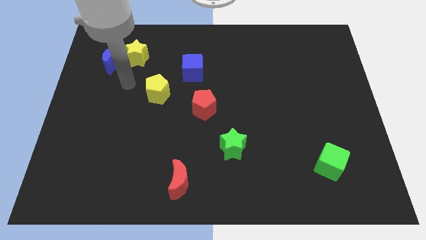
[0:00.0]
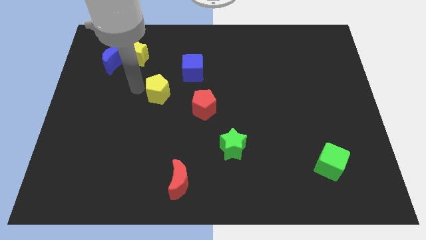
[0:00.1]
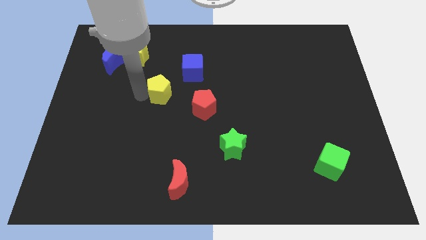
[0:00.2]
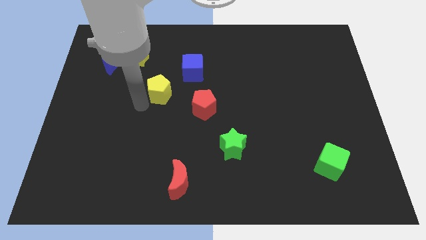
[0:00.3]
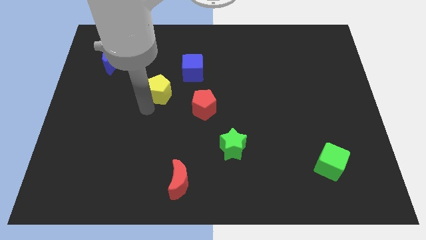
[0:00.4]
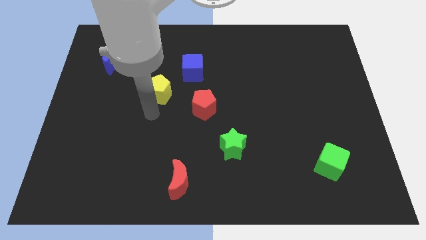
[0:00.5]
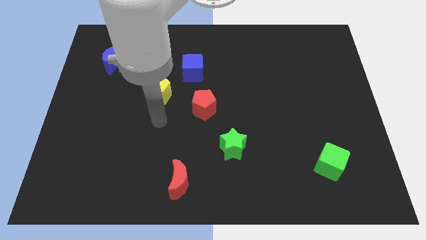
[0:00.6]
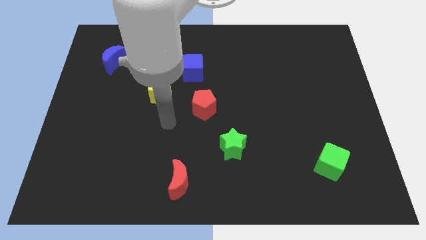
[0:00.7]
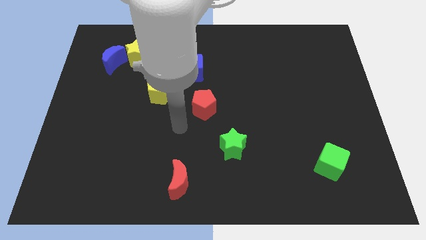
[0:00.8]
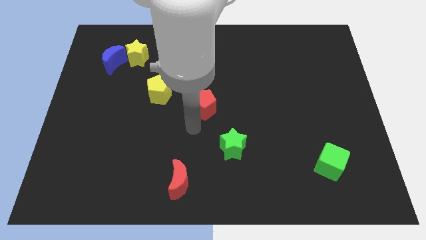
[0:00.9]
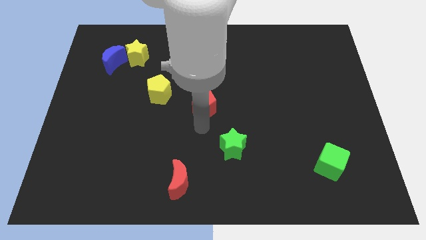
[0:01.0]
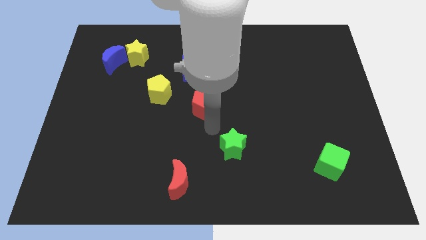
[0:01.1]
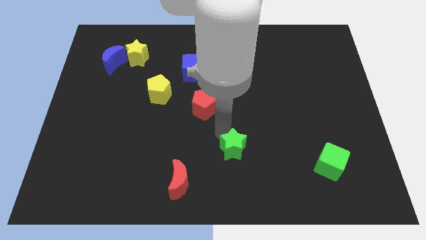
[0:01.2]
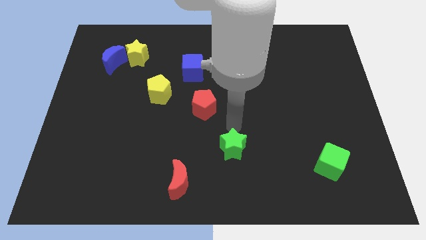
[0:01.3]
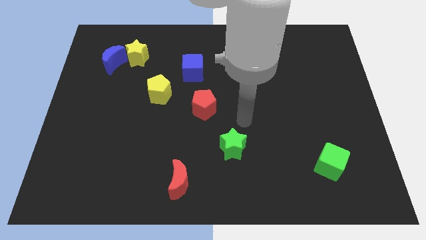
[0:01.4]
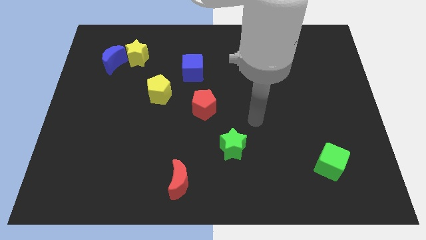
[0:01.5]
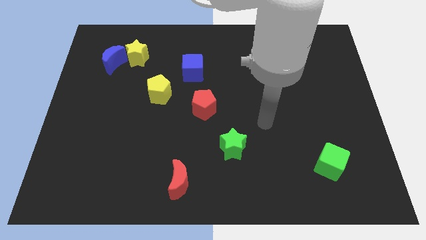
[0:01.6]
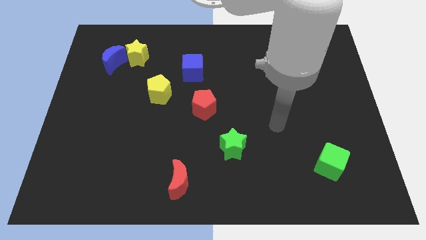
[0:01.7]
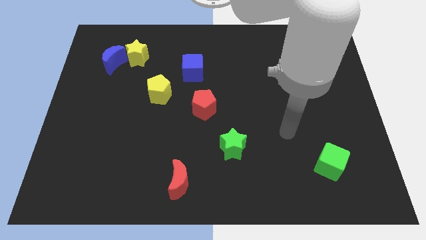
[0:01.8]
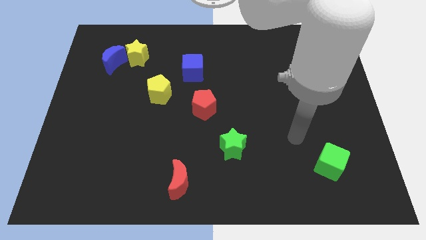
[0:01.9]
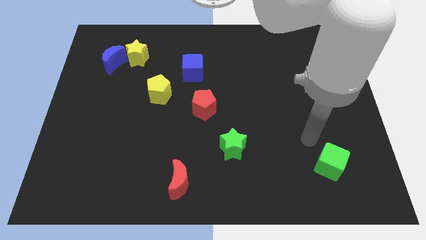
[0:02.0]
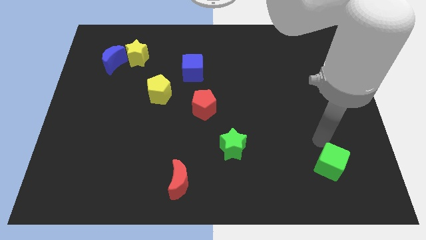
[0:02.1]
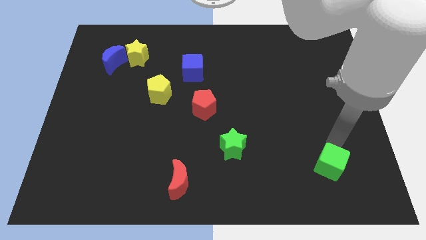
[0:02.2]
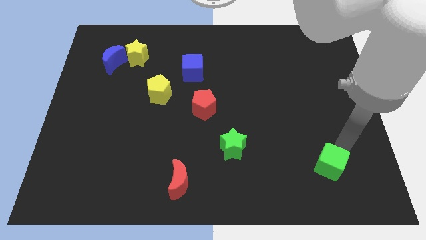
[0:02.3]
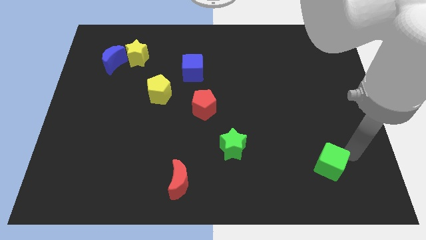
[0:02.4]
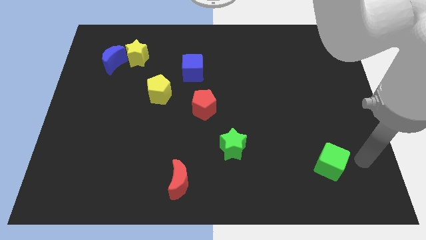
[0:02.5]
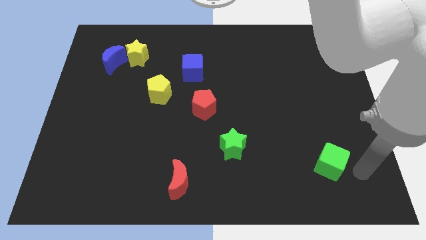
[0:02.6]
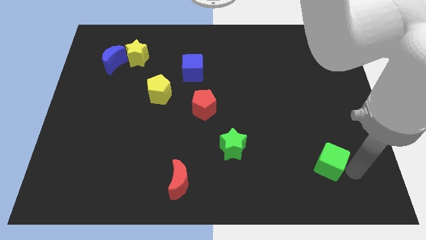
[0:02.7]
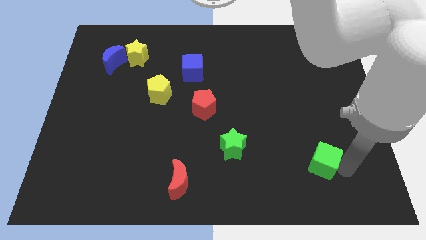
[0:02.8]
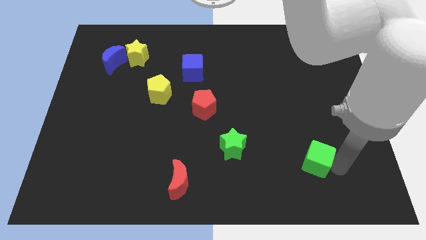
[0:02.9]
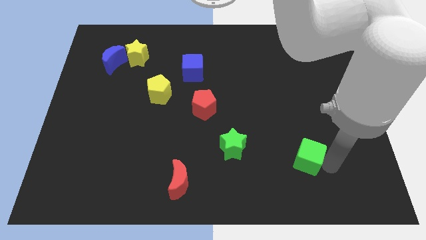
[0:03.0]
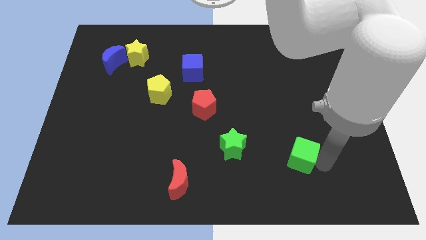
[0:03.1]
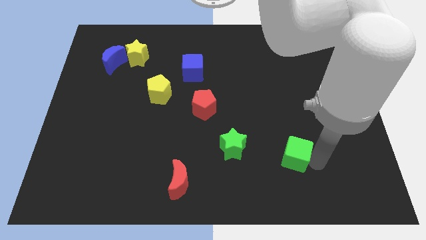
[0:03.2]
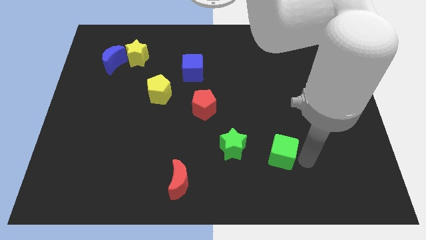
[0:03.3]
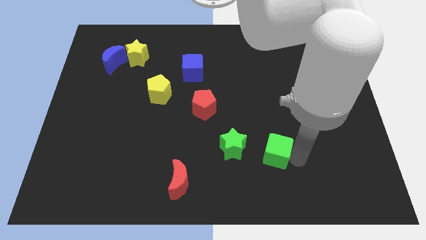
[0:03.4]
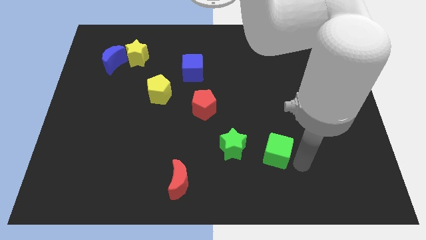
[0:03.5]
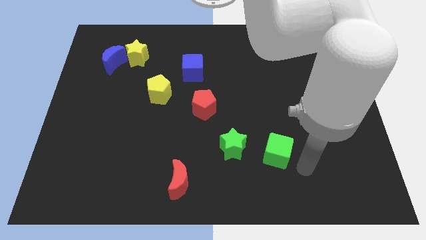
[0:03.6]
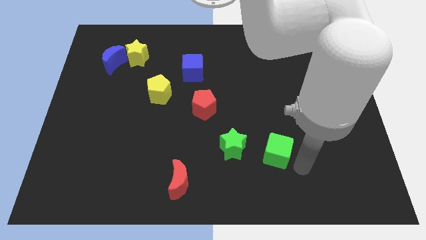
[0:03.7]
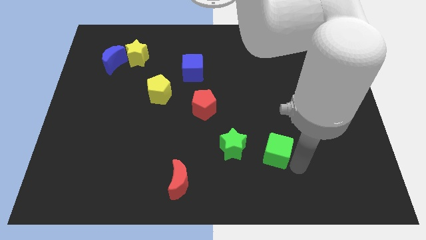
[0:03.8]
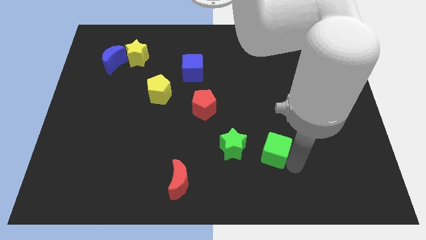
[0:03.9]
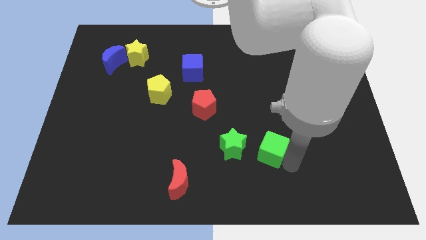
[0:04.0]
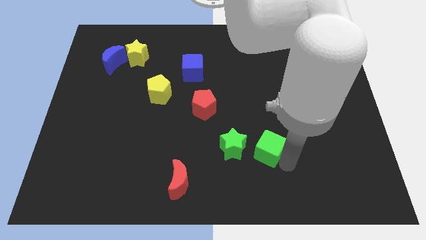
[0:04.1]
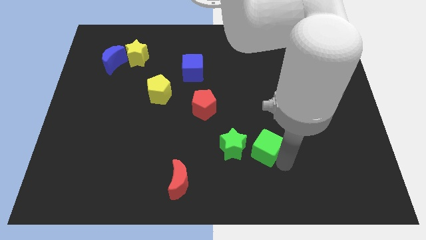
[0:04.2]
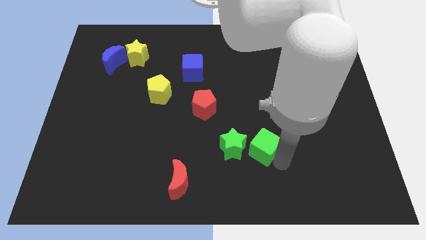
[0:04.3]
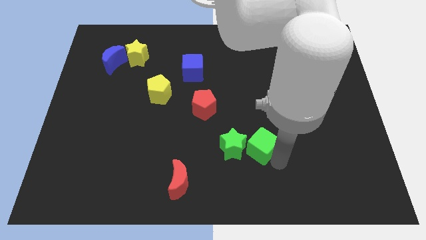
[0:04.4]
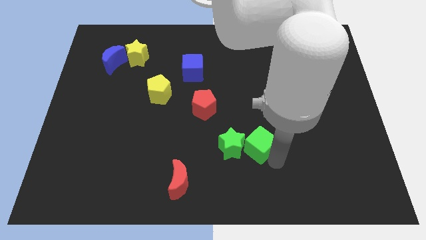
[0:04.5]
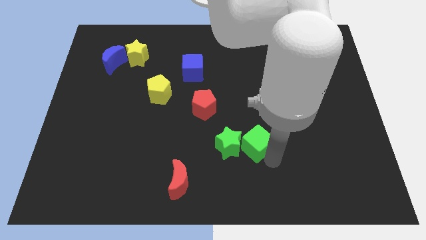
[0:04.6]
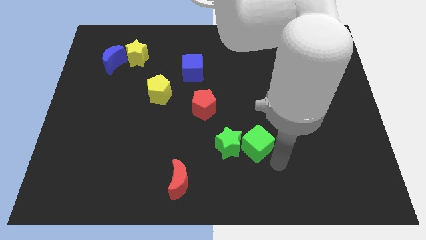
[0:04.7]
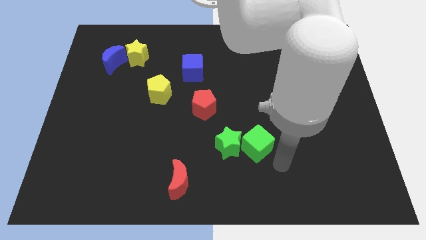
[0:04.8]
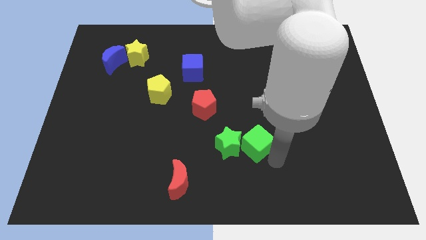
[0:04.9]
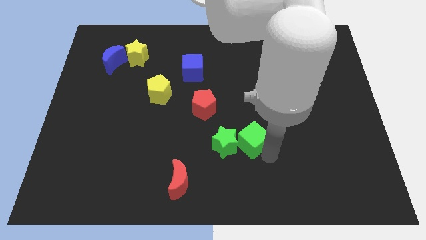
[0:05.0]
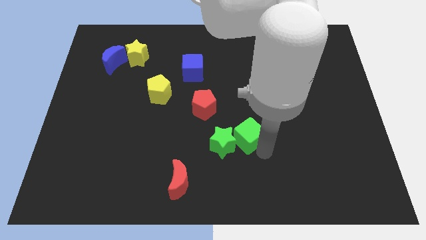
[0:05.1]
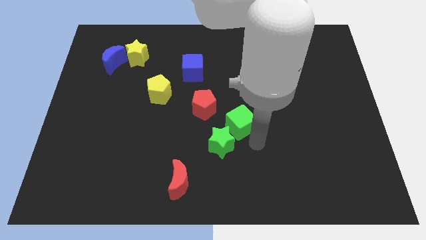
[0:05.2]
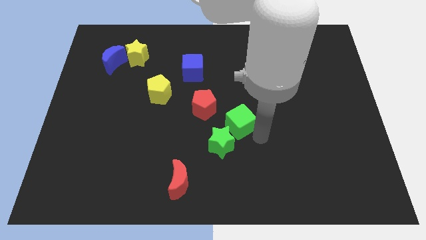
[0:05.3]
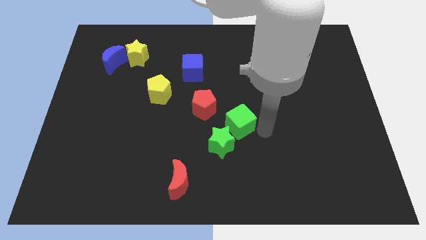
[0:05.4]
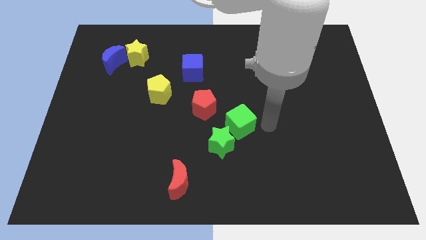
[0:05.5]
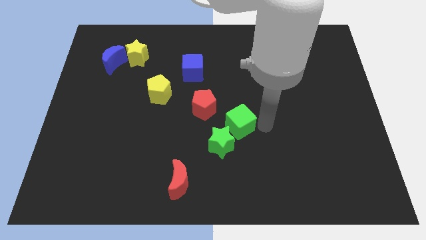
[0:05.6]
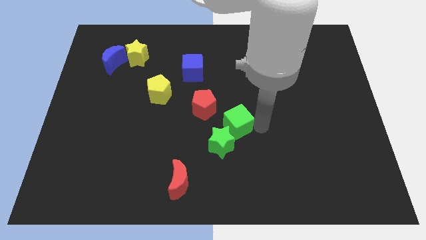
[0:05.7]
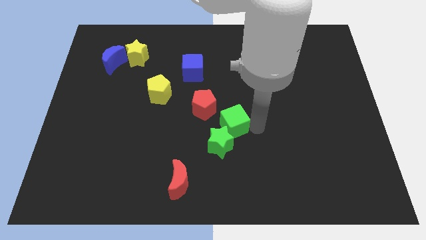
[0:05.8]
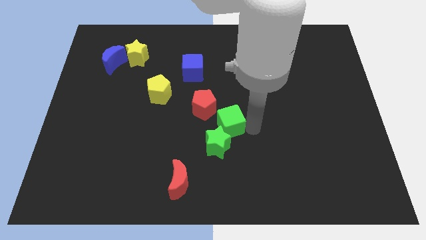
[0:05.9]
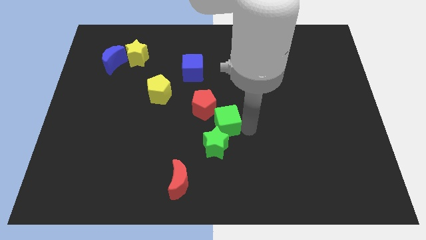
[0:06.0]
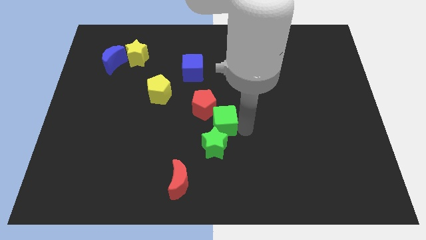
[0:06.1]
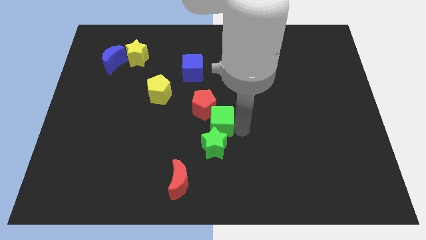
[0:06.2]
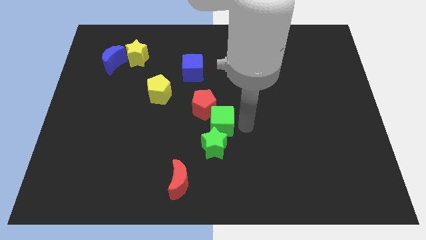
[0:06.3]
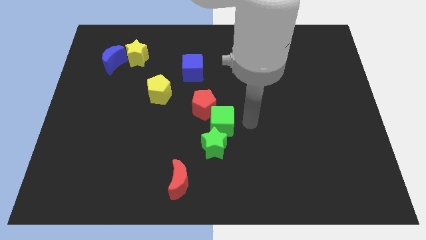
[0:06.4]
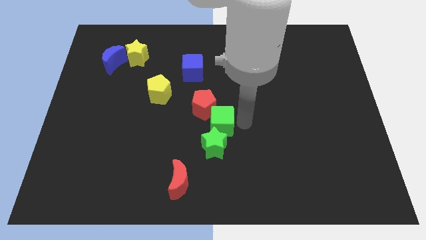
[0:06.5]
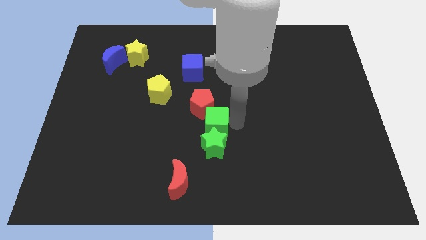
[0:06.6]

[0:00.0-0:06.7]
slide the green cube to the top left of the green star
